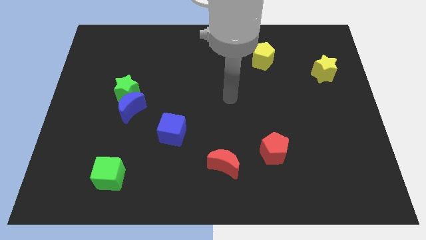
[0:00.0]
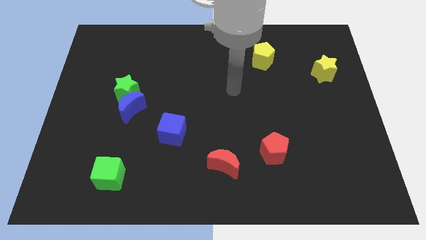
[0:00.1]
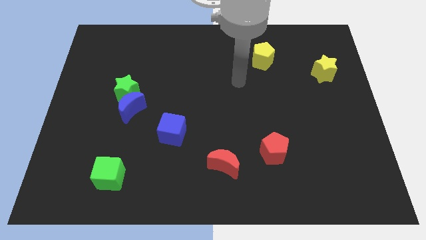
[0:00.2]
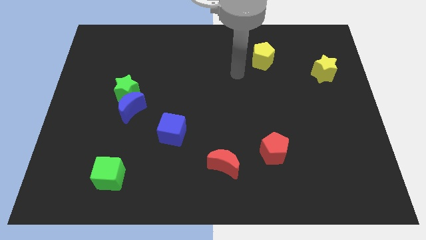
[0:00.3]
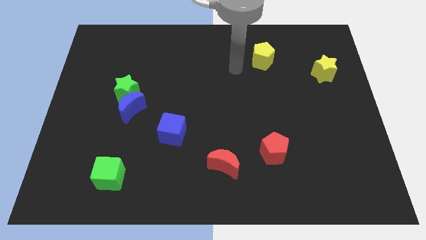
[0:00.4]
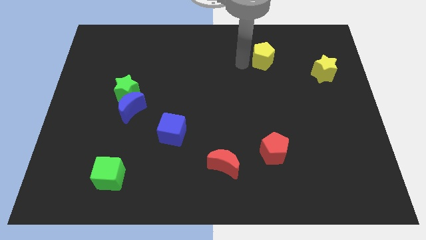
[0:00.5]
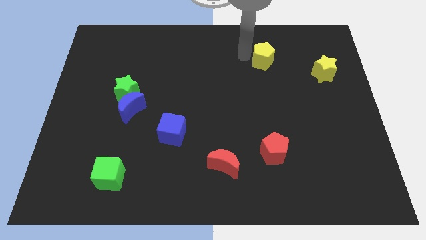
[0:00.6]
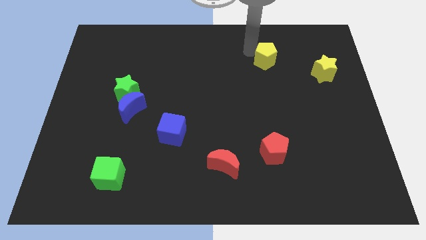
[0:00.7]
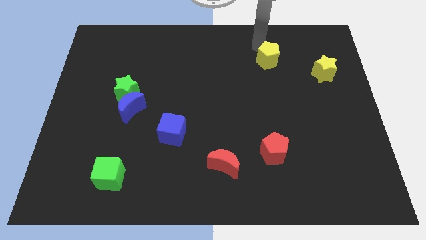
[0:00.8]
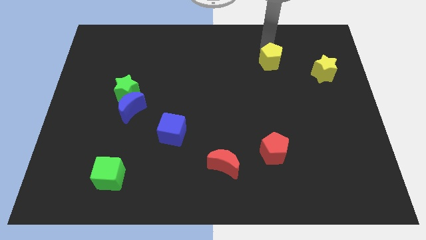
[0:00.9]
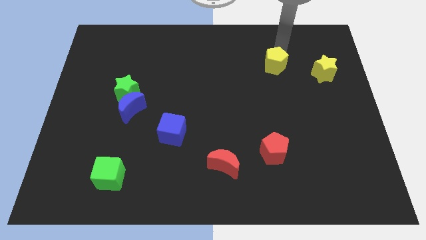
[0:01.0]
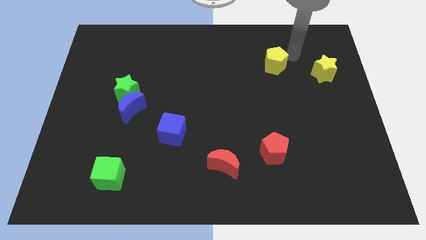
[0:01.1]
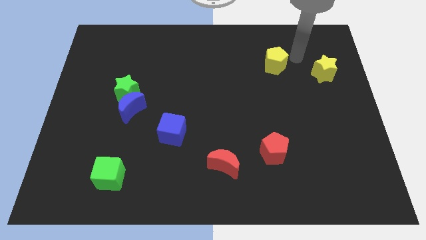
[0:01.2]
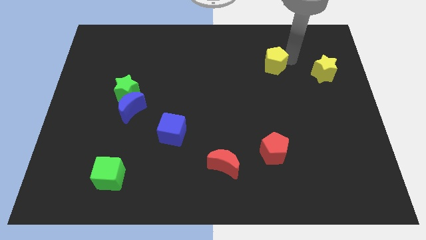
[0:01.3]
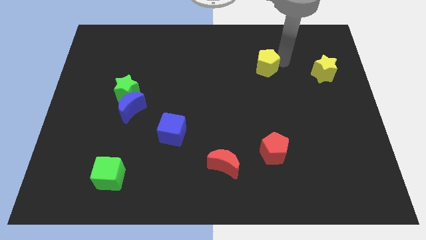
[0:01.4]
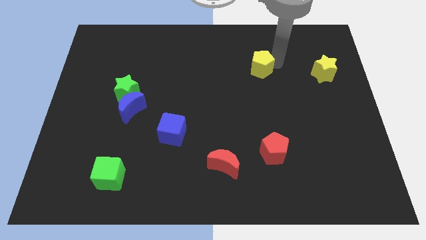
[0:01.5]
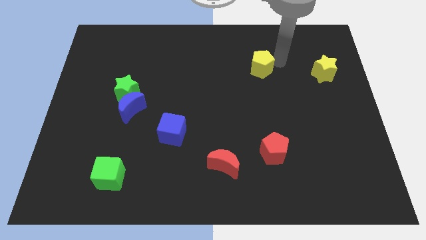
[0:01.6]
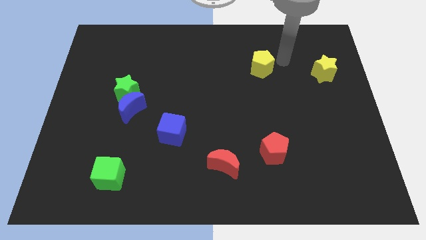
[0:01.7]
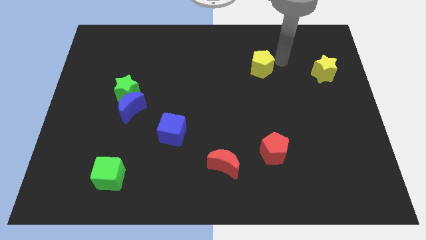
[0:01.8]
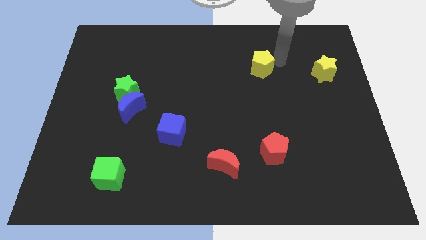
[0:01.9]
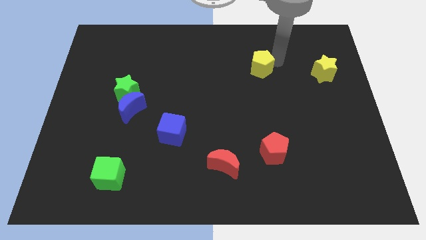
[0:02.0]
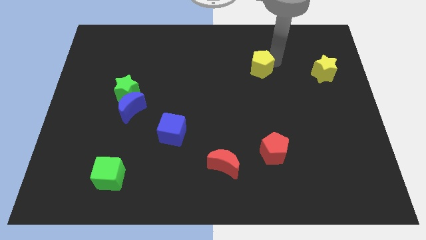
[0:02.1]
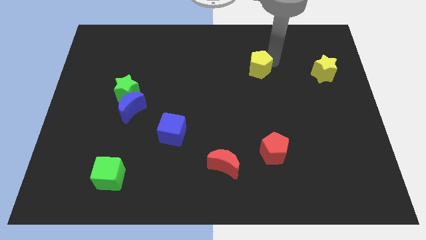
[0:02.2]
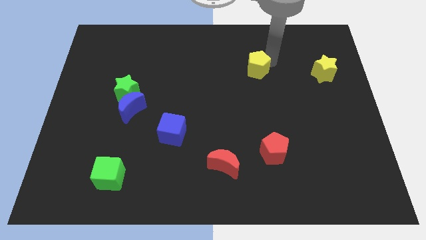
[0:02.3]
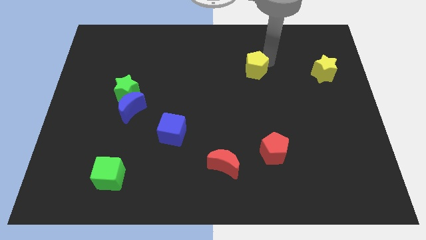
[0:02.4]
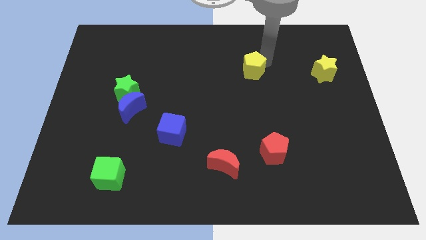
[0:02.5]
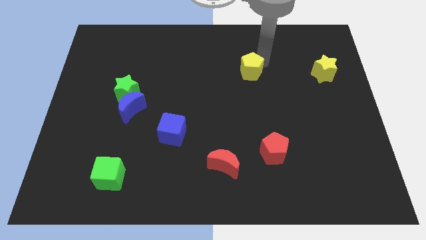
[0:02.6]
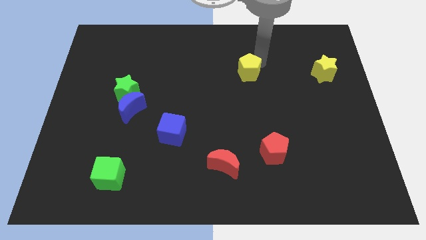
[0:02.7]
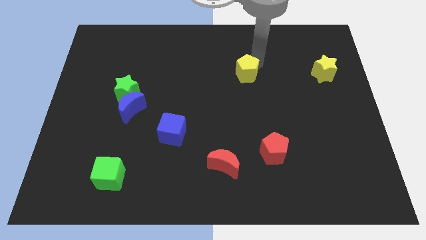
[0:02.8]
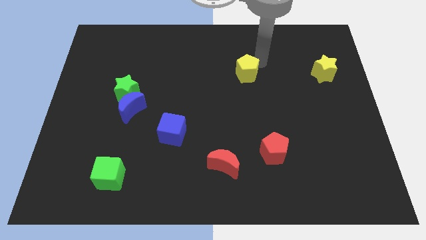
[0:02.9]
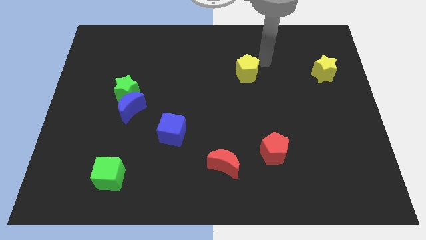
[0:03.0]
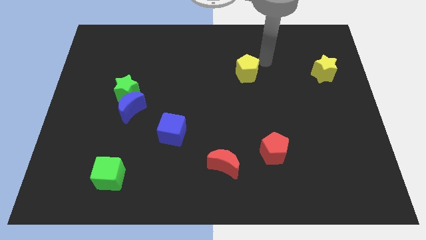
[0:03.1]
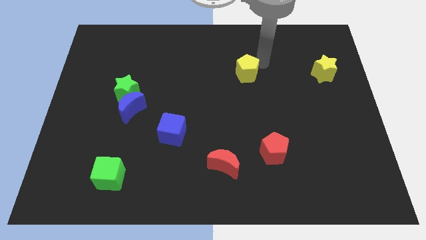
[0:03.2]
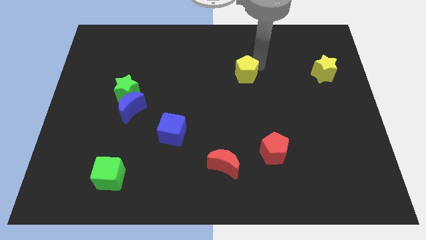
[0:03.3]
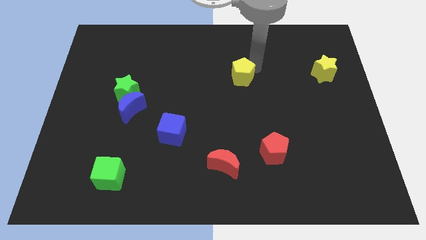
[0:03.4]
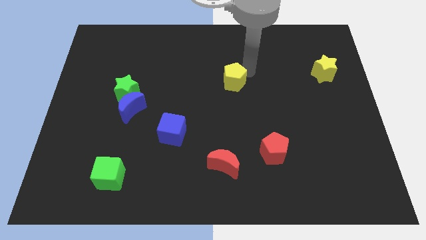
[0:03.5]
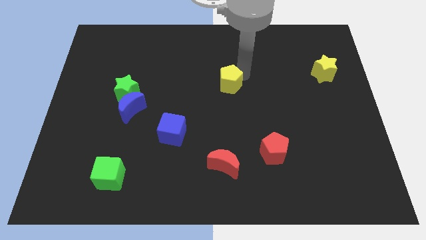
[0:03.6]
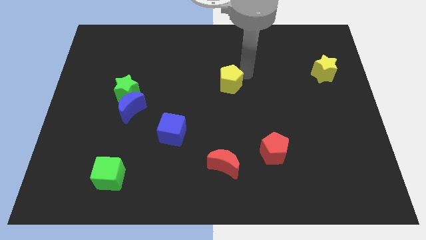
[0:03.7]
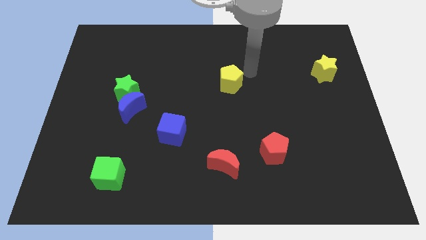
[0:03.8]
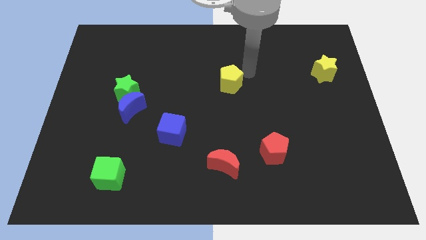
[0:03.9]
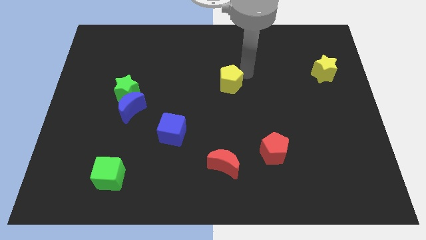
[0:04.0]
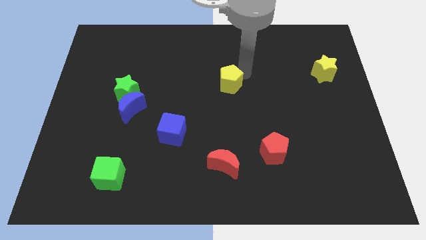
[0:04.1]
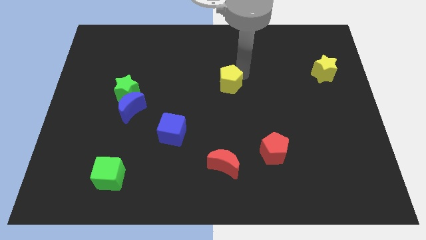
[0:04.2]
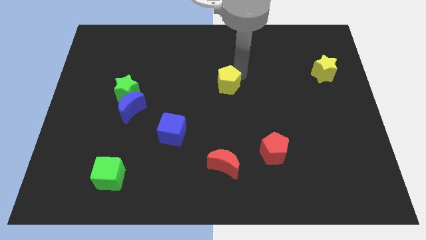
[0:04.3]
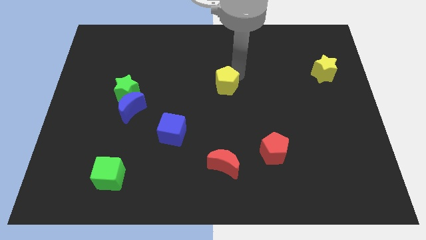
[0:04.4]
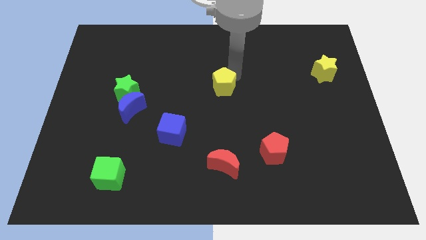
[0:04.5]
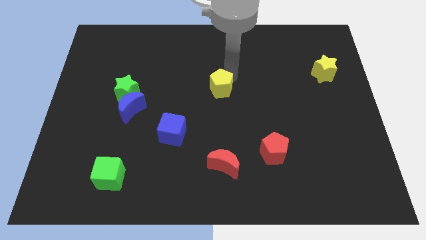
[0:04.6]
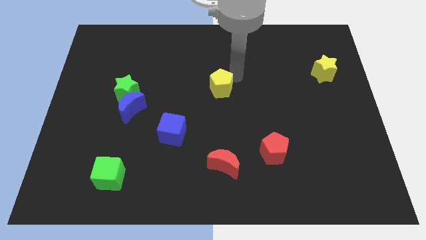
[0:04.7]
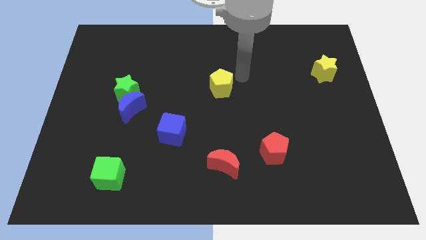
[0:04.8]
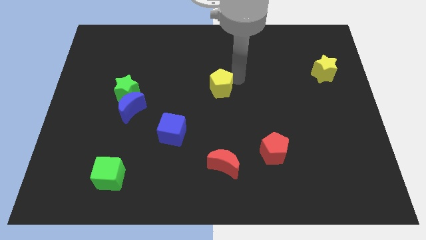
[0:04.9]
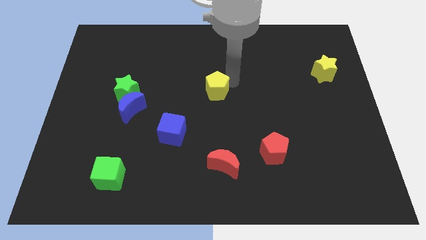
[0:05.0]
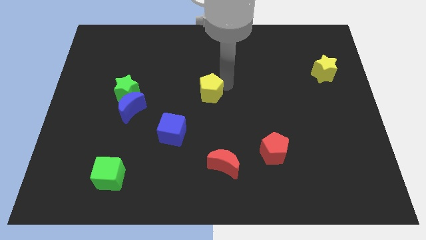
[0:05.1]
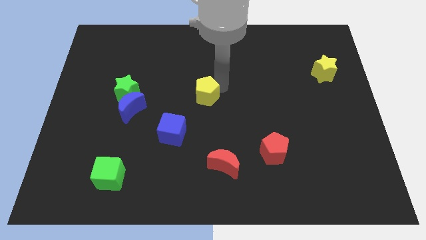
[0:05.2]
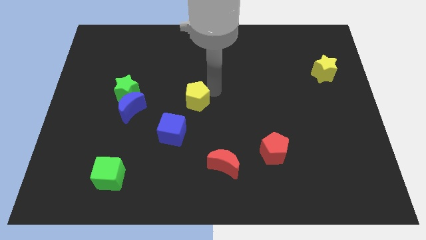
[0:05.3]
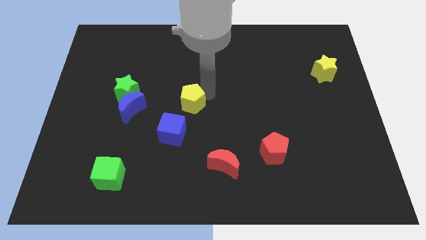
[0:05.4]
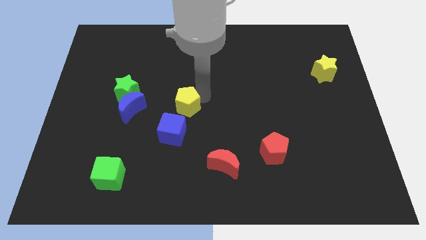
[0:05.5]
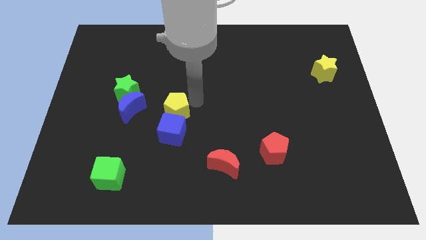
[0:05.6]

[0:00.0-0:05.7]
move the yellow pentagon diagonally up and to the left of the blue cube

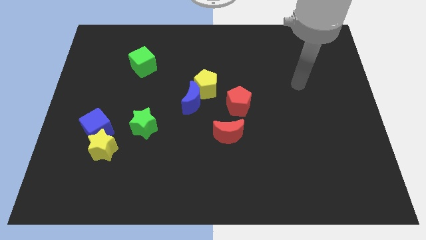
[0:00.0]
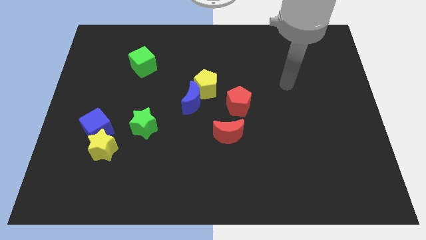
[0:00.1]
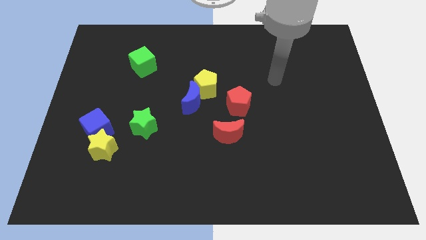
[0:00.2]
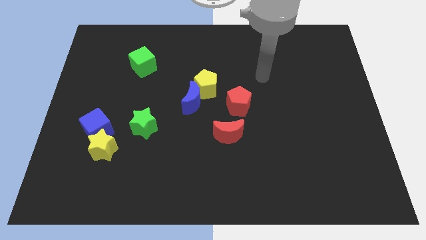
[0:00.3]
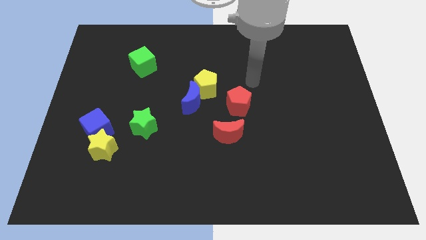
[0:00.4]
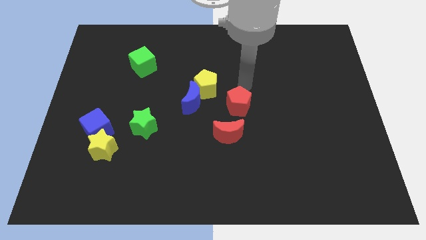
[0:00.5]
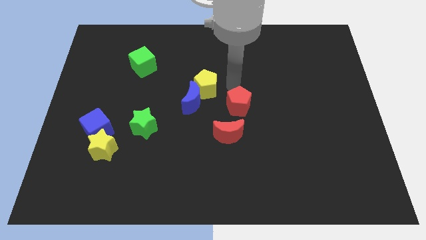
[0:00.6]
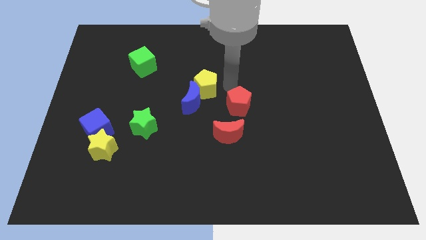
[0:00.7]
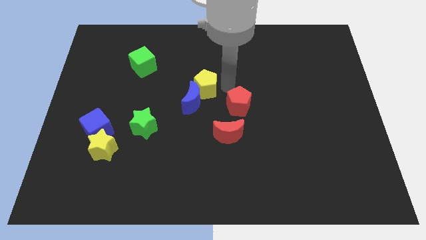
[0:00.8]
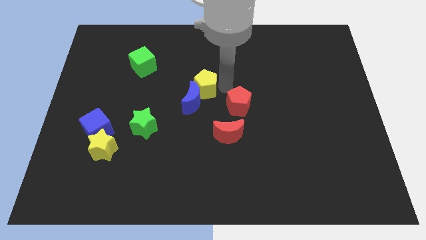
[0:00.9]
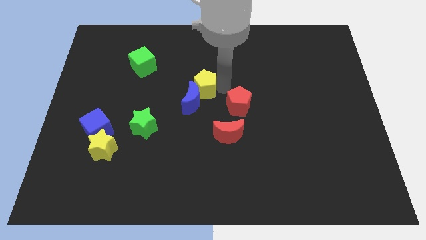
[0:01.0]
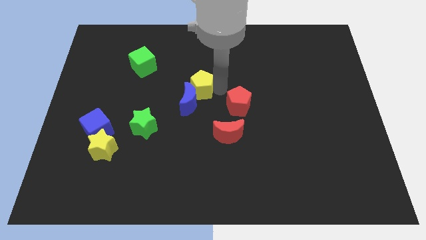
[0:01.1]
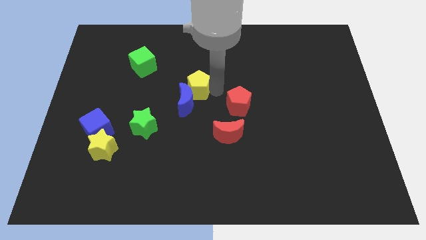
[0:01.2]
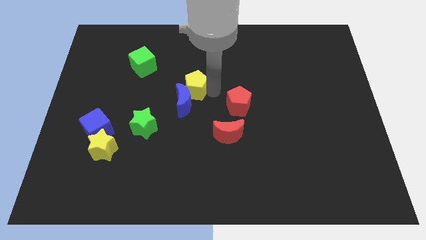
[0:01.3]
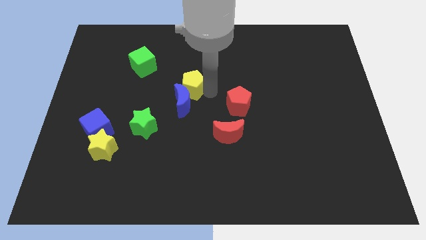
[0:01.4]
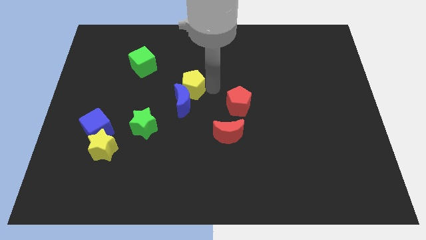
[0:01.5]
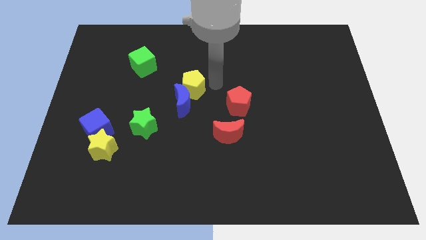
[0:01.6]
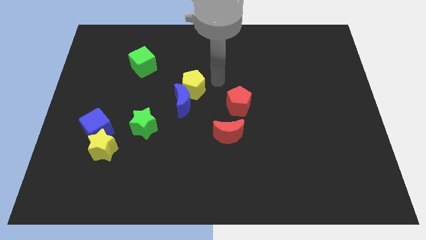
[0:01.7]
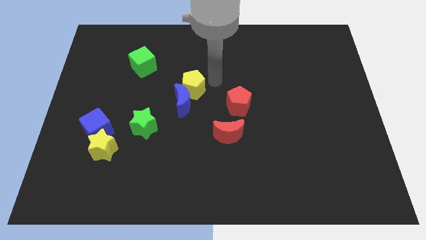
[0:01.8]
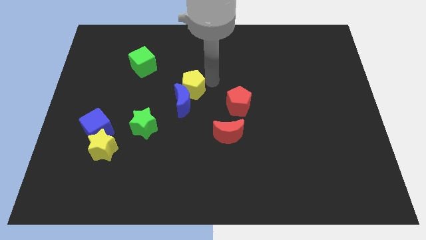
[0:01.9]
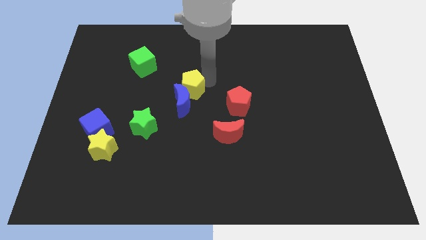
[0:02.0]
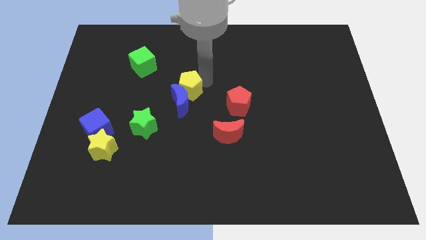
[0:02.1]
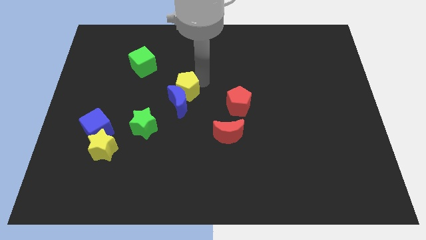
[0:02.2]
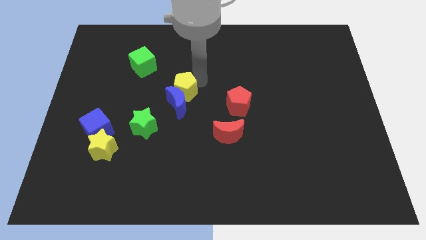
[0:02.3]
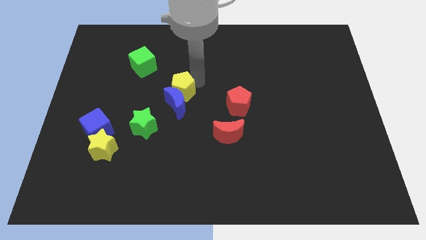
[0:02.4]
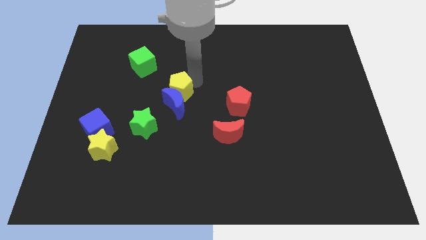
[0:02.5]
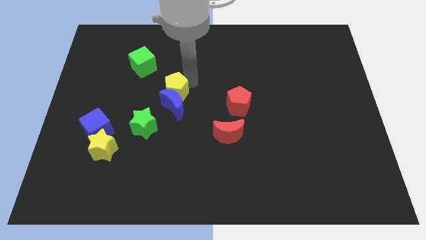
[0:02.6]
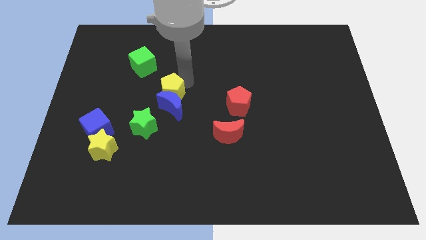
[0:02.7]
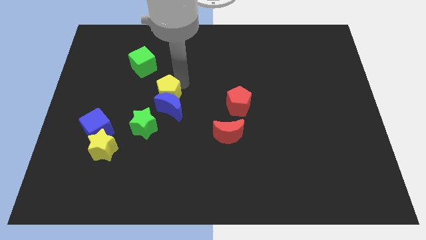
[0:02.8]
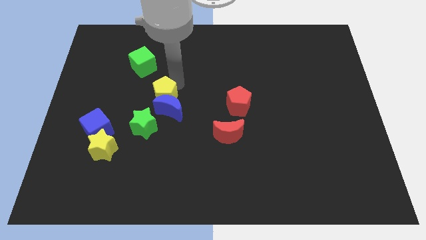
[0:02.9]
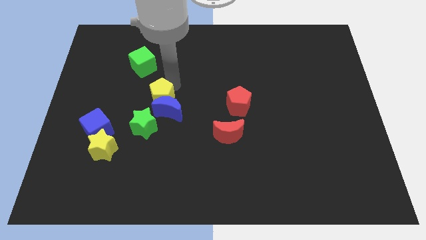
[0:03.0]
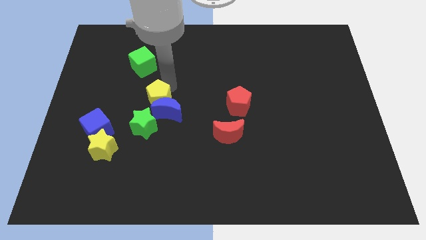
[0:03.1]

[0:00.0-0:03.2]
put the yellow pentagon to the left side of the blue moon
